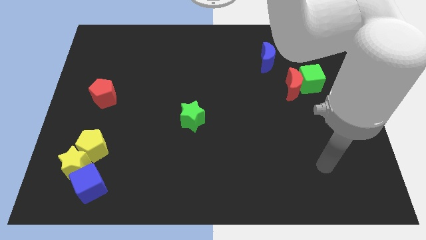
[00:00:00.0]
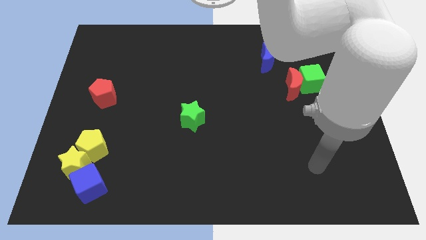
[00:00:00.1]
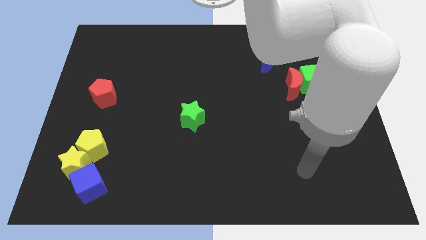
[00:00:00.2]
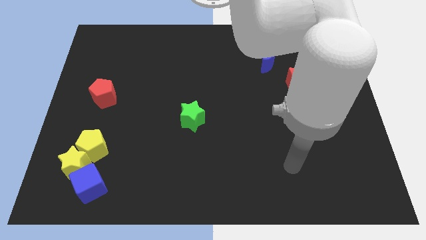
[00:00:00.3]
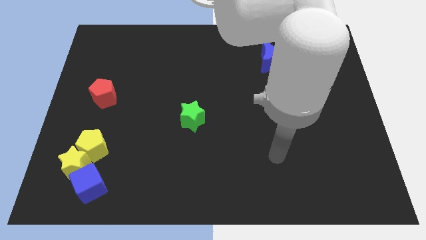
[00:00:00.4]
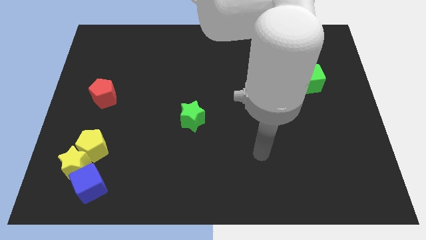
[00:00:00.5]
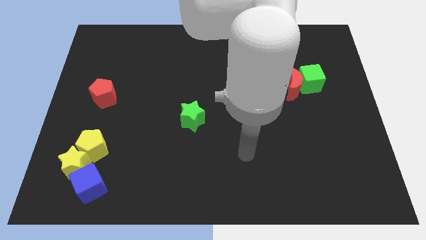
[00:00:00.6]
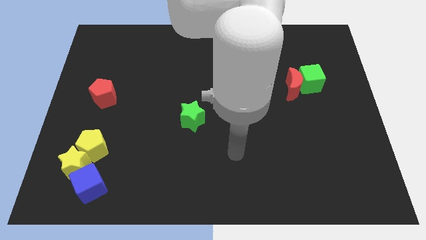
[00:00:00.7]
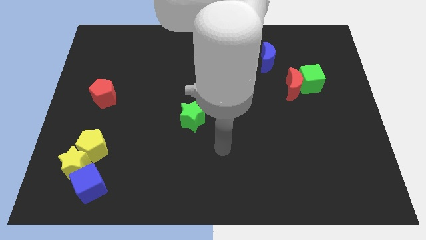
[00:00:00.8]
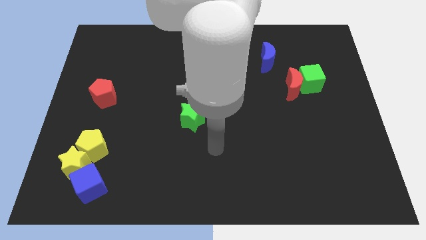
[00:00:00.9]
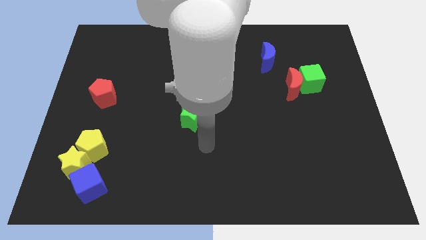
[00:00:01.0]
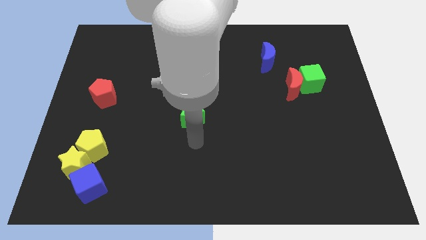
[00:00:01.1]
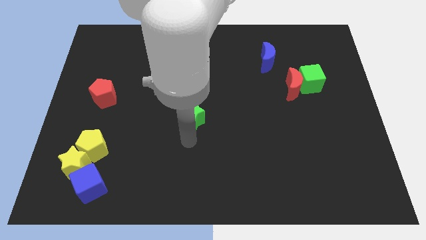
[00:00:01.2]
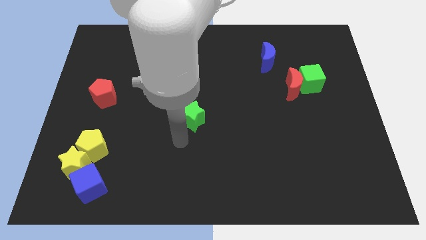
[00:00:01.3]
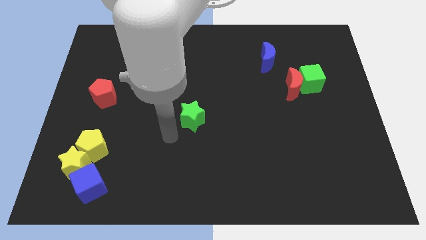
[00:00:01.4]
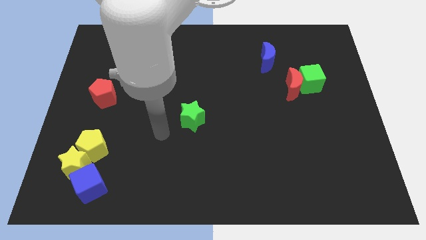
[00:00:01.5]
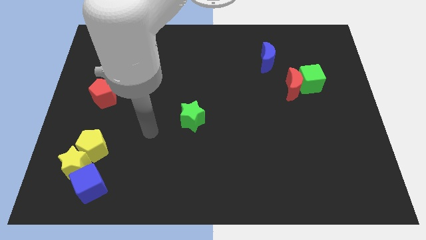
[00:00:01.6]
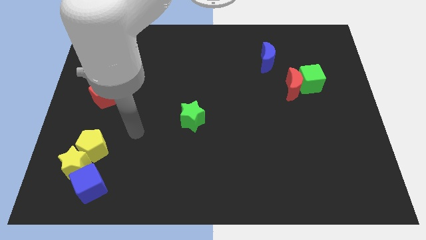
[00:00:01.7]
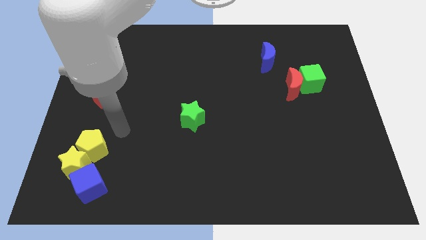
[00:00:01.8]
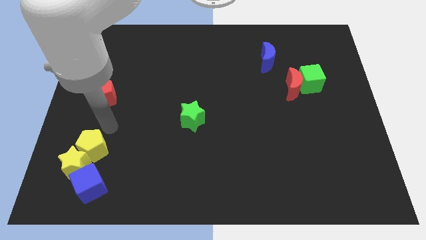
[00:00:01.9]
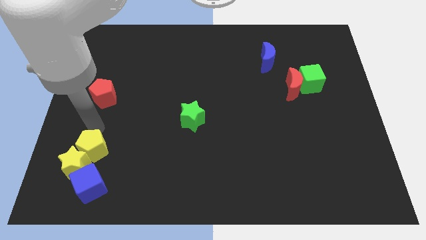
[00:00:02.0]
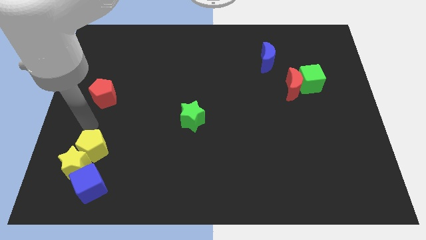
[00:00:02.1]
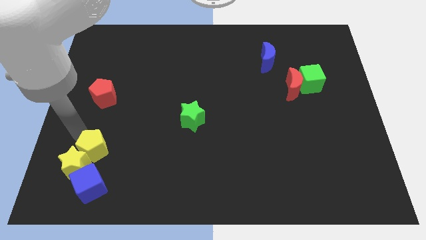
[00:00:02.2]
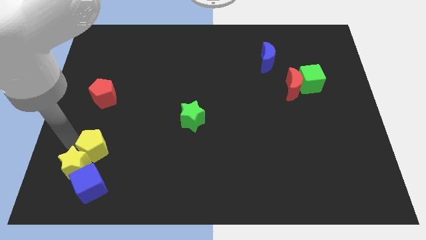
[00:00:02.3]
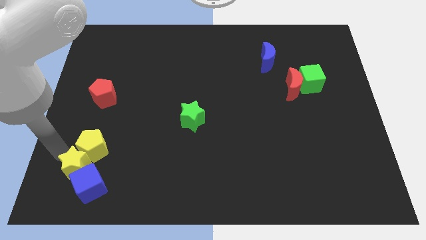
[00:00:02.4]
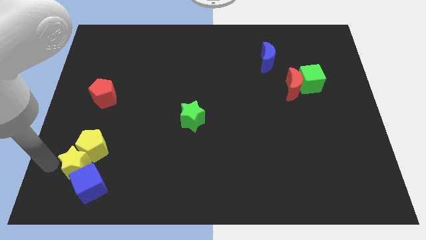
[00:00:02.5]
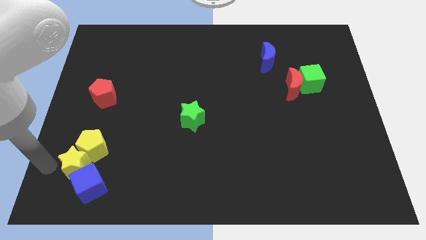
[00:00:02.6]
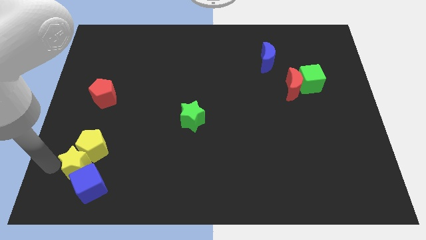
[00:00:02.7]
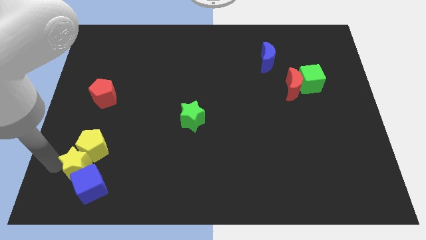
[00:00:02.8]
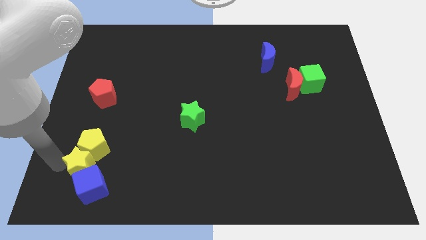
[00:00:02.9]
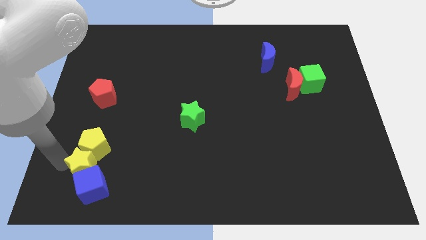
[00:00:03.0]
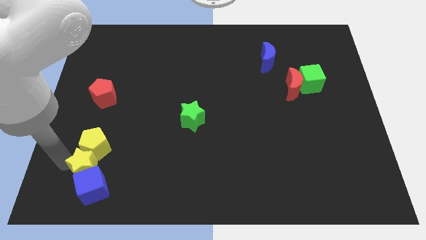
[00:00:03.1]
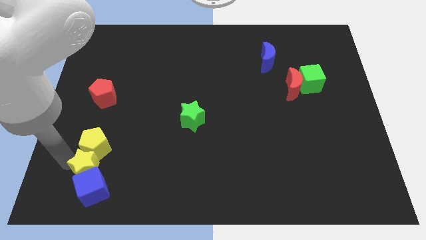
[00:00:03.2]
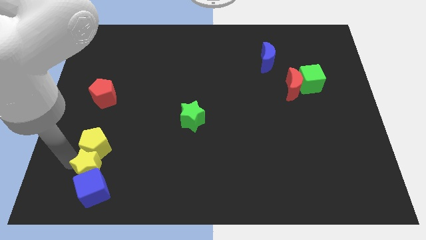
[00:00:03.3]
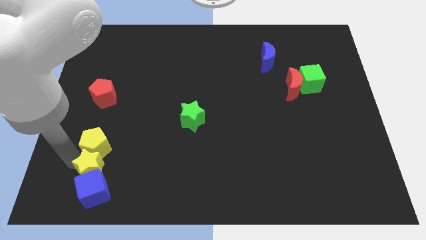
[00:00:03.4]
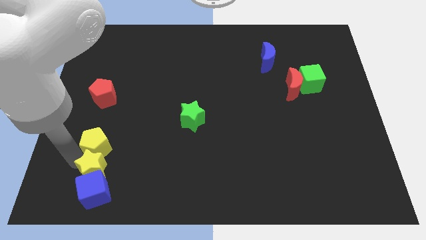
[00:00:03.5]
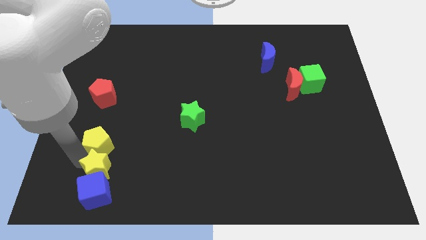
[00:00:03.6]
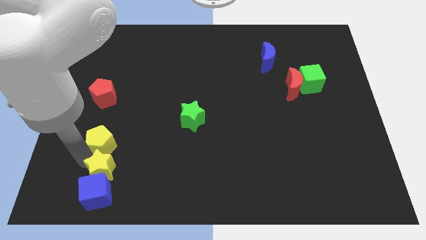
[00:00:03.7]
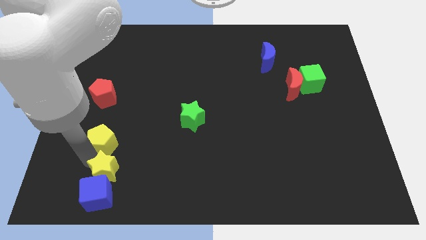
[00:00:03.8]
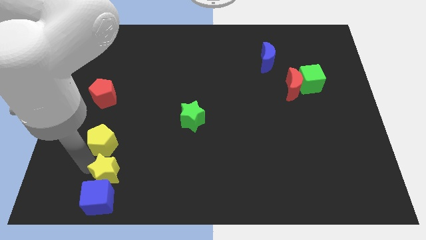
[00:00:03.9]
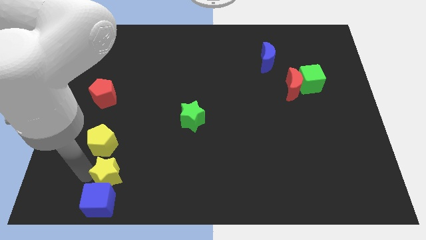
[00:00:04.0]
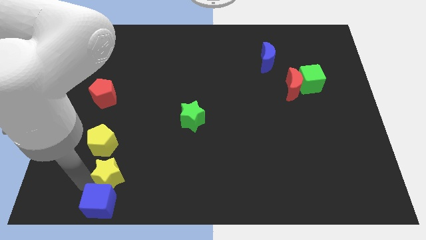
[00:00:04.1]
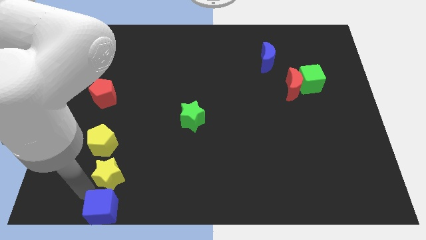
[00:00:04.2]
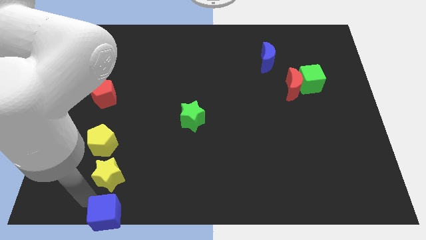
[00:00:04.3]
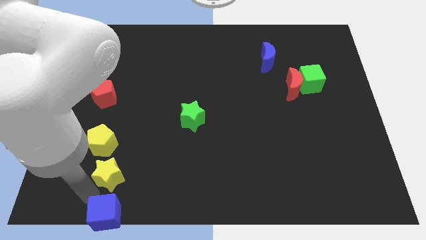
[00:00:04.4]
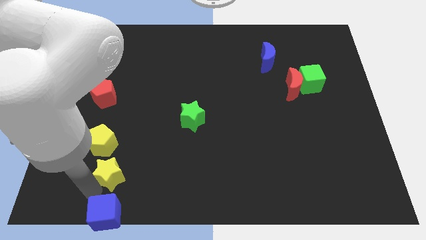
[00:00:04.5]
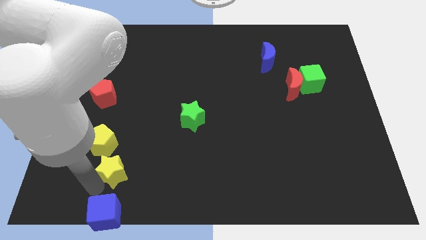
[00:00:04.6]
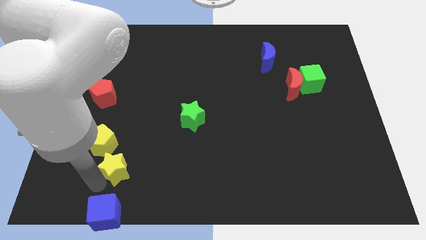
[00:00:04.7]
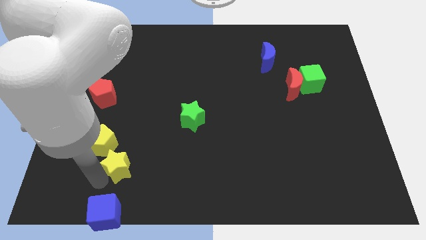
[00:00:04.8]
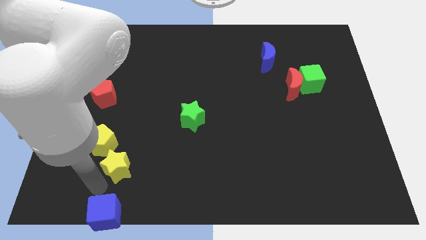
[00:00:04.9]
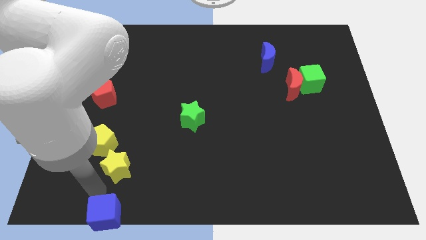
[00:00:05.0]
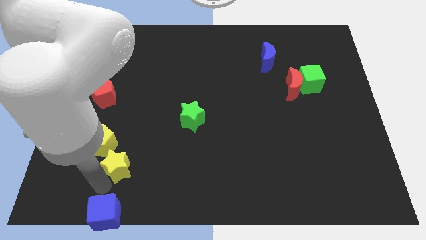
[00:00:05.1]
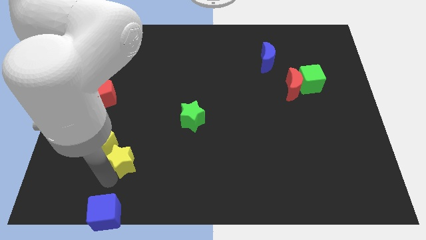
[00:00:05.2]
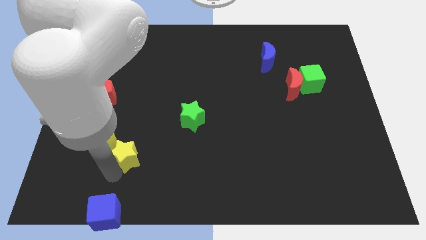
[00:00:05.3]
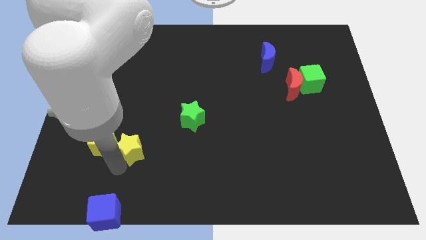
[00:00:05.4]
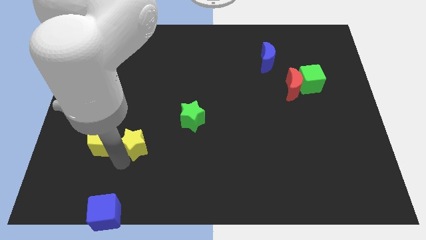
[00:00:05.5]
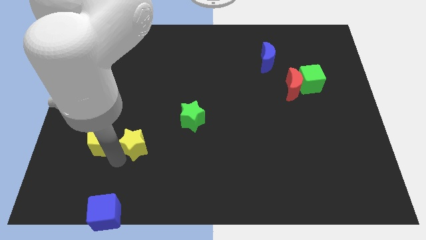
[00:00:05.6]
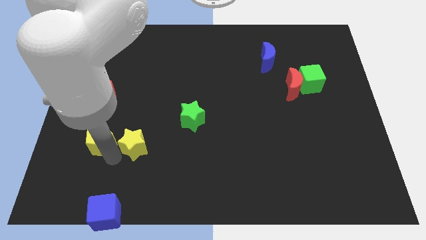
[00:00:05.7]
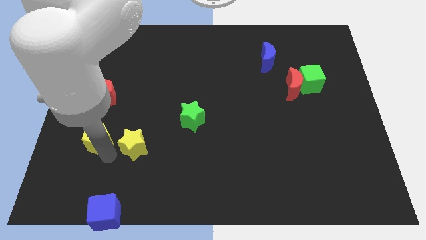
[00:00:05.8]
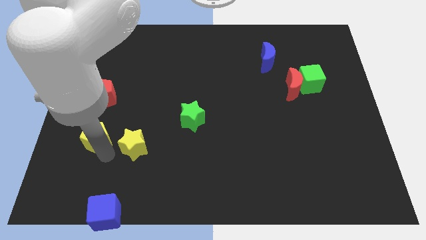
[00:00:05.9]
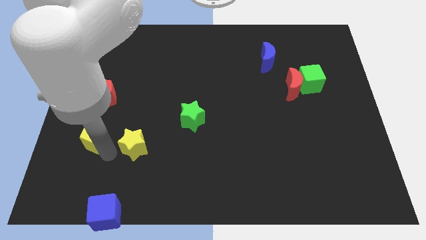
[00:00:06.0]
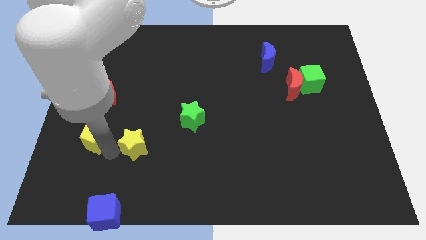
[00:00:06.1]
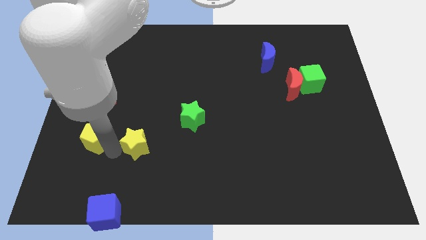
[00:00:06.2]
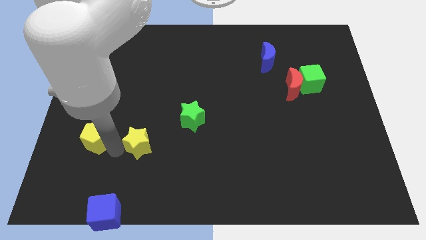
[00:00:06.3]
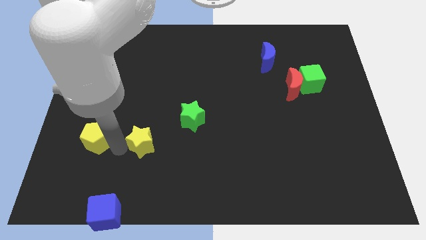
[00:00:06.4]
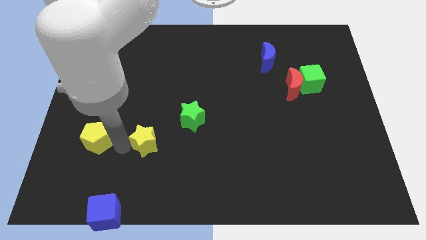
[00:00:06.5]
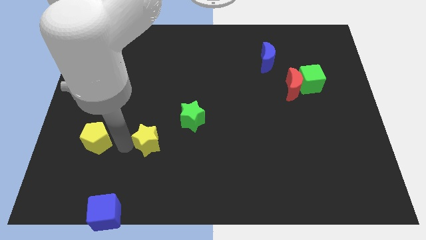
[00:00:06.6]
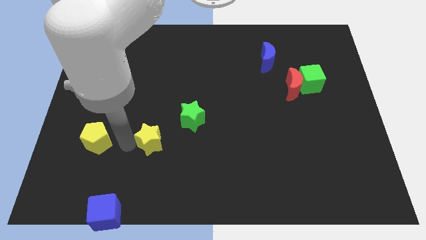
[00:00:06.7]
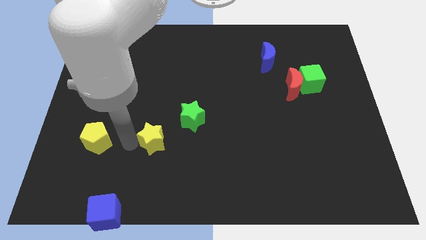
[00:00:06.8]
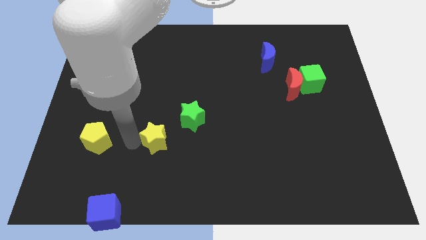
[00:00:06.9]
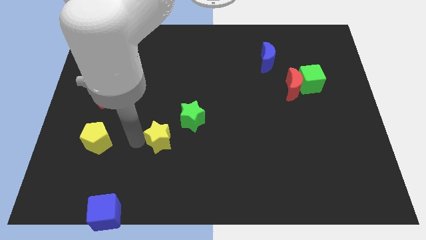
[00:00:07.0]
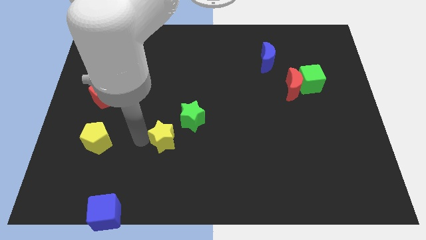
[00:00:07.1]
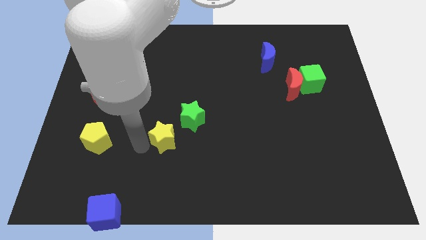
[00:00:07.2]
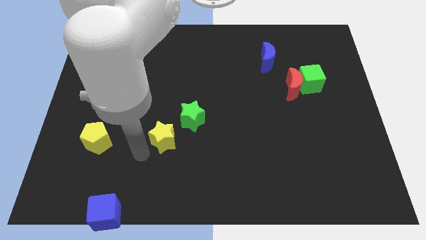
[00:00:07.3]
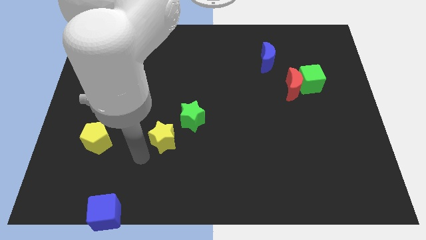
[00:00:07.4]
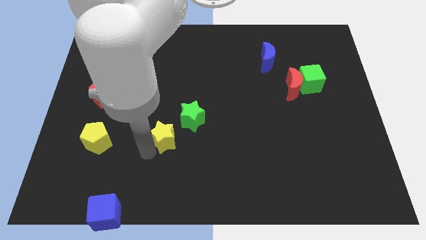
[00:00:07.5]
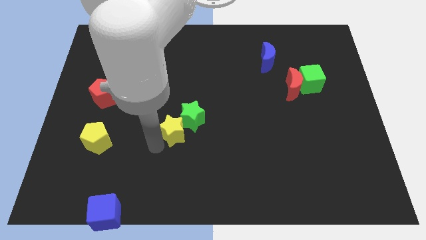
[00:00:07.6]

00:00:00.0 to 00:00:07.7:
slide the yellow star to the green star
